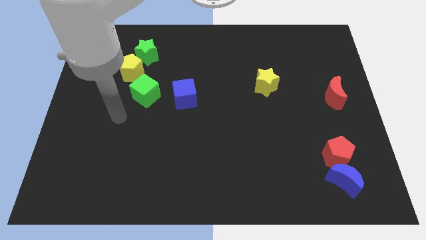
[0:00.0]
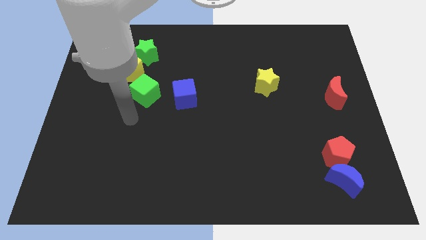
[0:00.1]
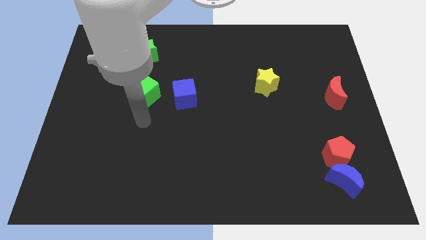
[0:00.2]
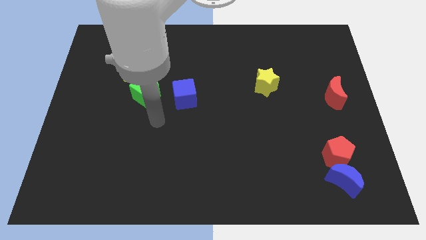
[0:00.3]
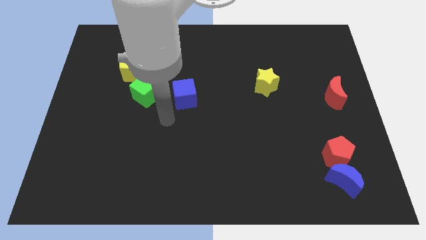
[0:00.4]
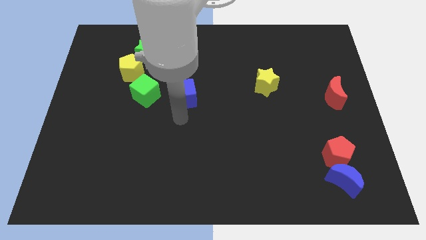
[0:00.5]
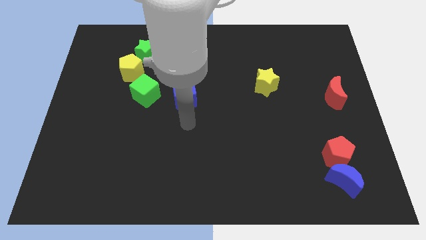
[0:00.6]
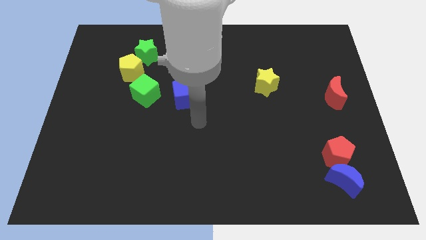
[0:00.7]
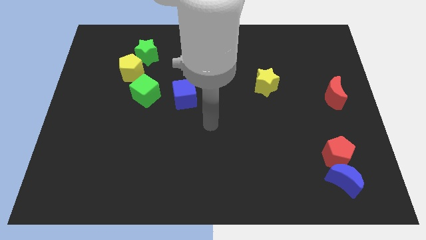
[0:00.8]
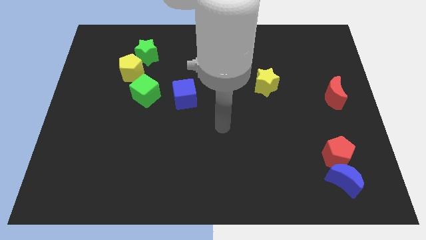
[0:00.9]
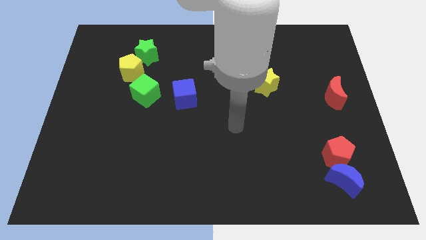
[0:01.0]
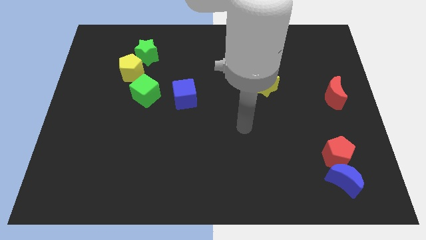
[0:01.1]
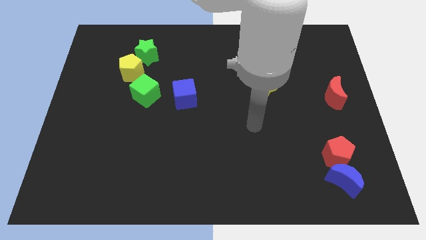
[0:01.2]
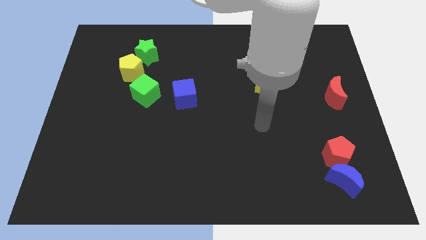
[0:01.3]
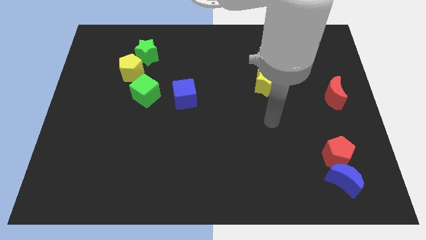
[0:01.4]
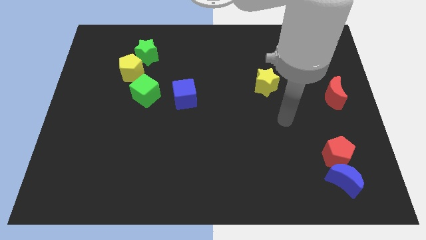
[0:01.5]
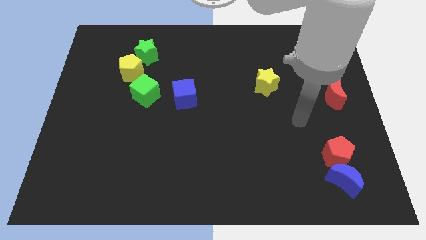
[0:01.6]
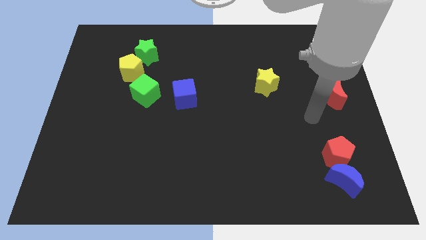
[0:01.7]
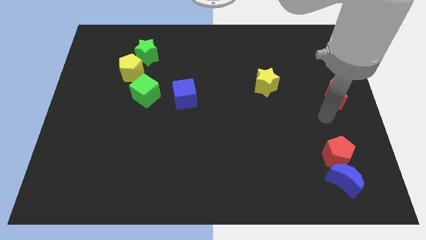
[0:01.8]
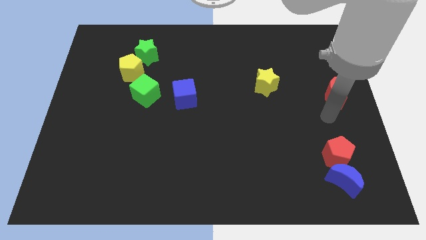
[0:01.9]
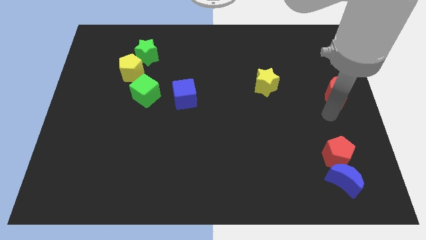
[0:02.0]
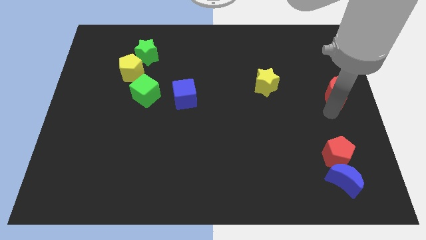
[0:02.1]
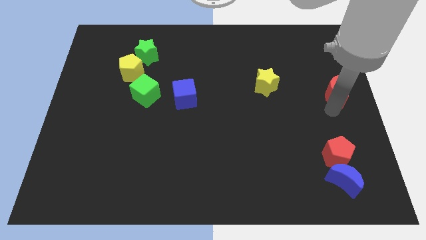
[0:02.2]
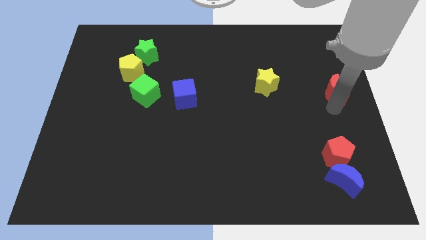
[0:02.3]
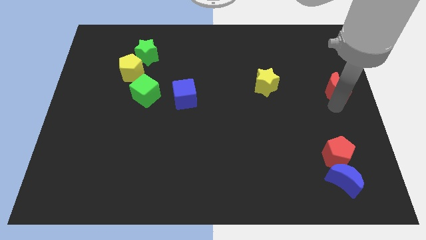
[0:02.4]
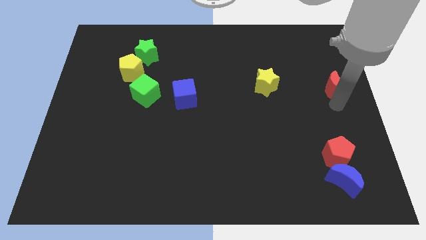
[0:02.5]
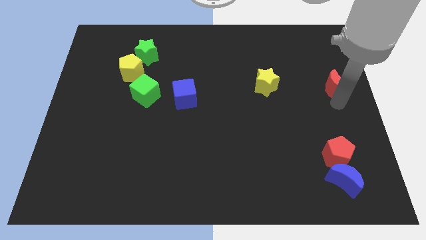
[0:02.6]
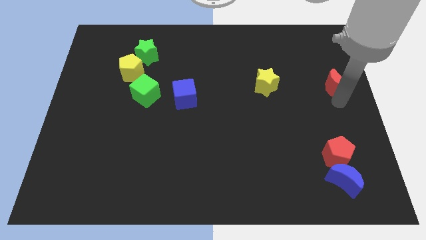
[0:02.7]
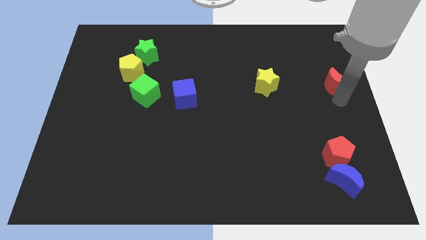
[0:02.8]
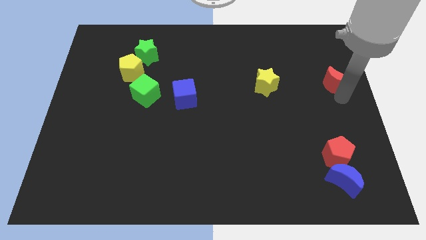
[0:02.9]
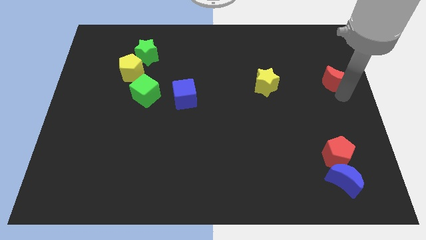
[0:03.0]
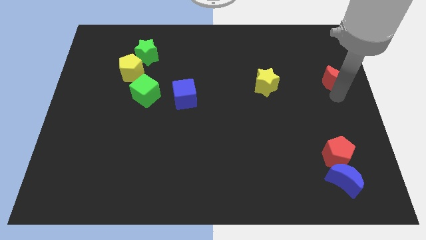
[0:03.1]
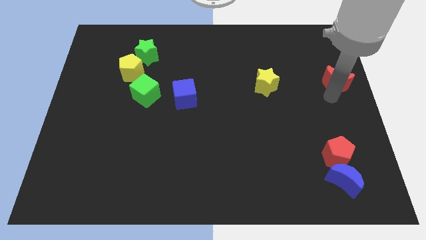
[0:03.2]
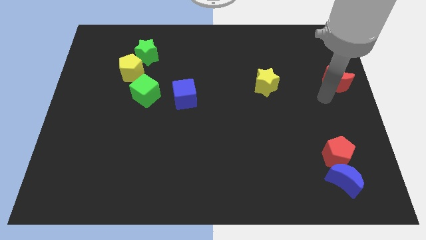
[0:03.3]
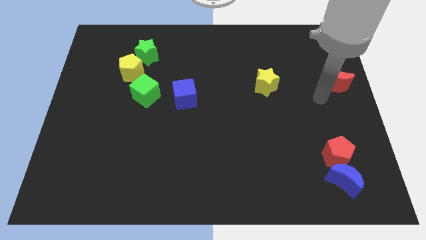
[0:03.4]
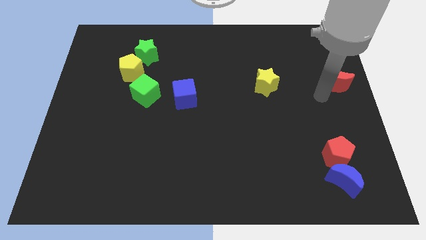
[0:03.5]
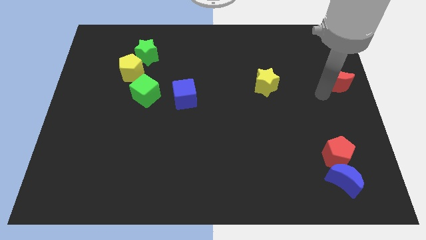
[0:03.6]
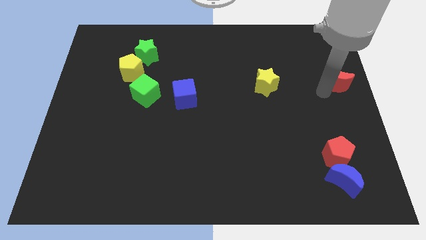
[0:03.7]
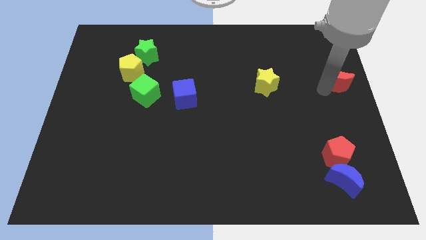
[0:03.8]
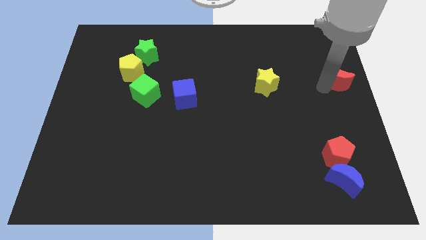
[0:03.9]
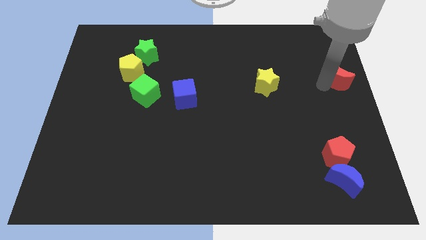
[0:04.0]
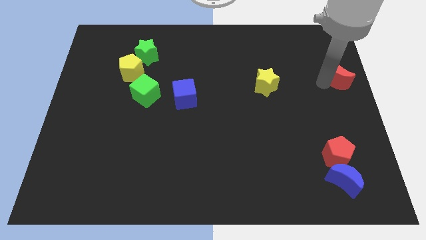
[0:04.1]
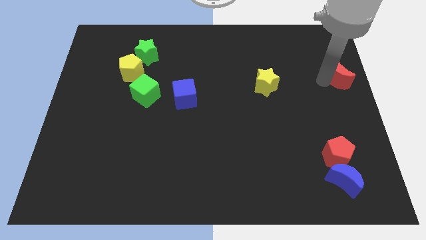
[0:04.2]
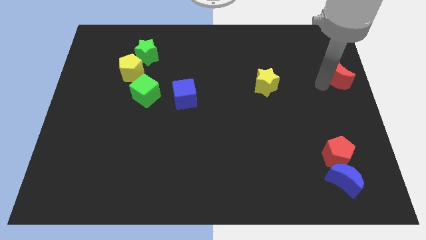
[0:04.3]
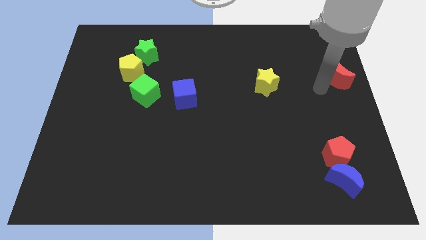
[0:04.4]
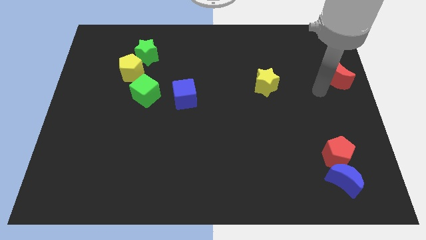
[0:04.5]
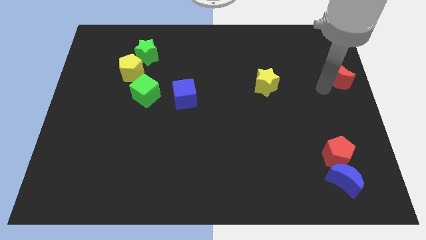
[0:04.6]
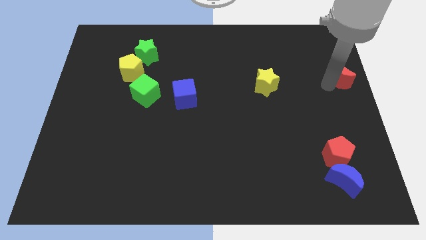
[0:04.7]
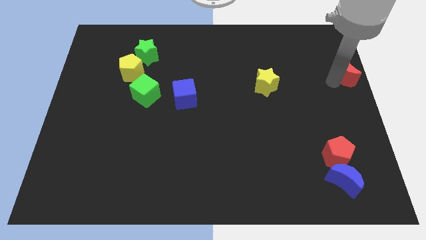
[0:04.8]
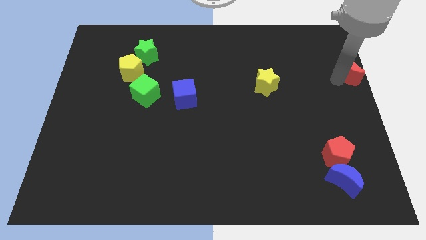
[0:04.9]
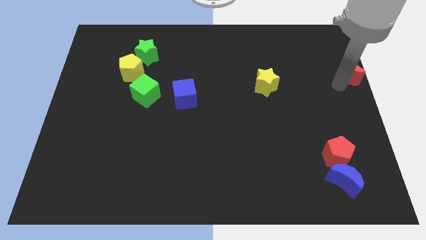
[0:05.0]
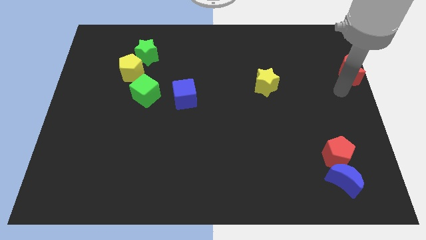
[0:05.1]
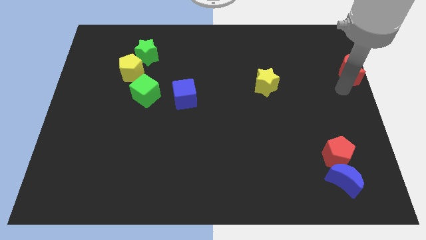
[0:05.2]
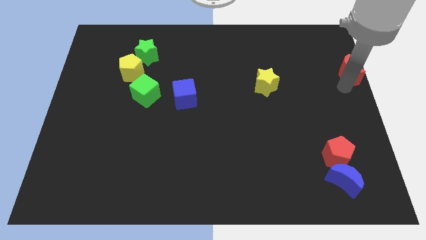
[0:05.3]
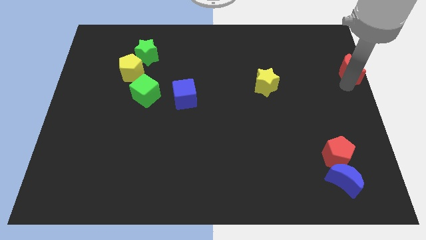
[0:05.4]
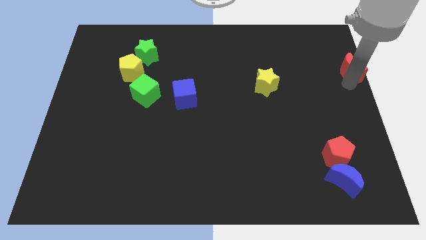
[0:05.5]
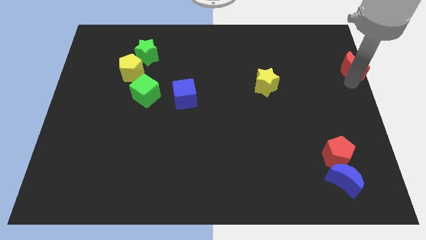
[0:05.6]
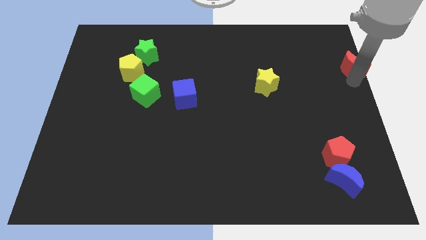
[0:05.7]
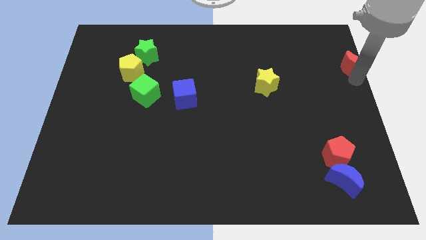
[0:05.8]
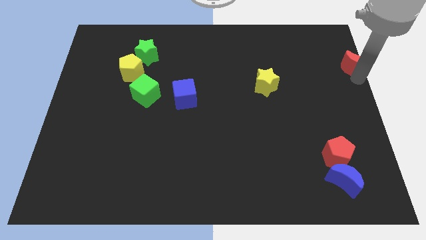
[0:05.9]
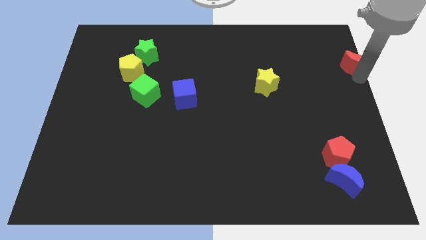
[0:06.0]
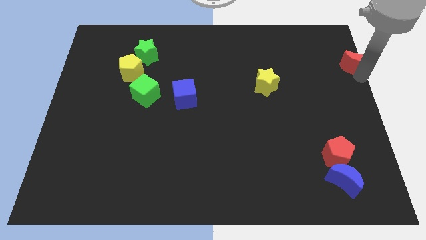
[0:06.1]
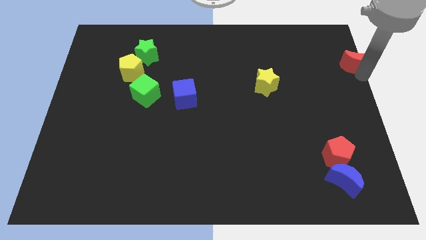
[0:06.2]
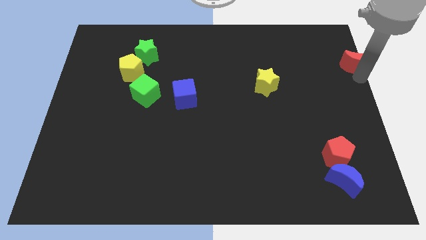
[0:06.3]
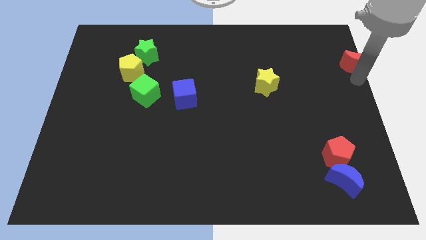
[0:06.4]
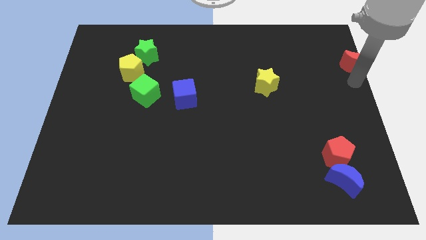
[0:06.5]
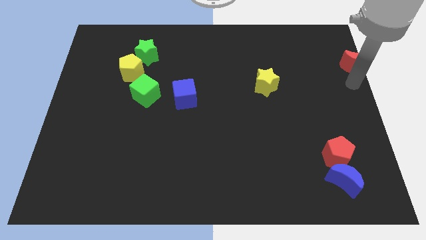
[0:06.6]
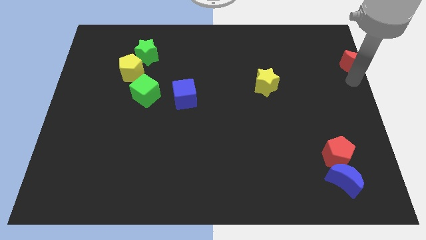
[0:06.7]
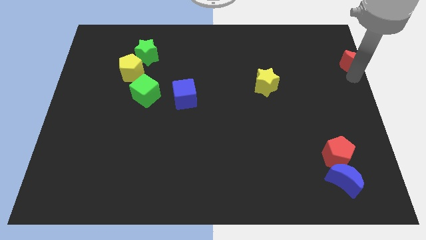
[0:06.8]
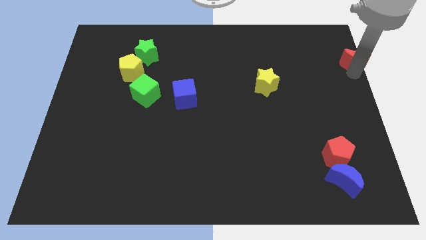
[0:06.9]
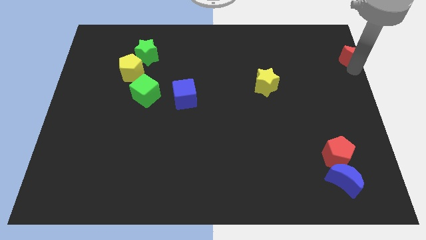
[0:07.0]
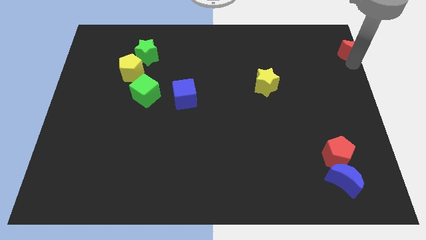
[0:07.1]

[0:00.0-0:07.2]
slide the red moon to the top right of the board

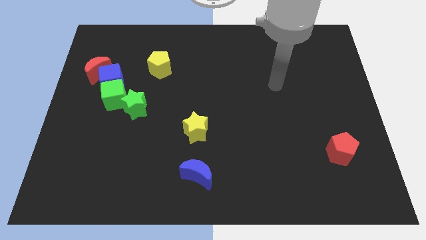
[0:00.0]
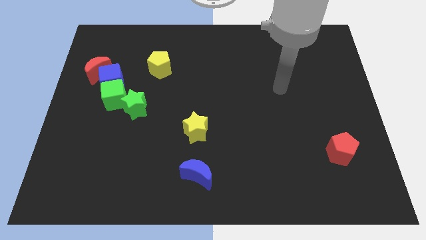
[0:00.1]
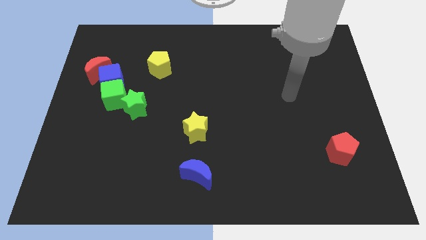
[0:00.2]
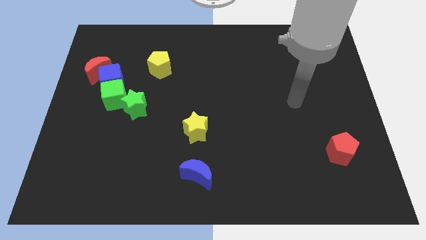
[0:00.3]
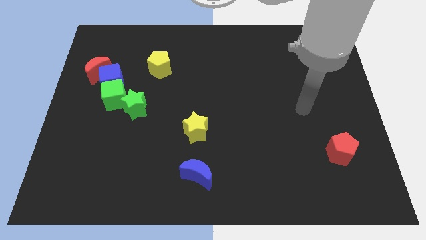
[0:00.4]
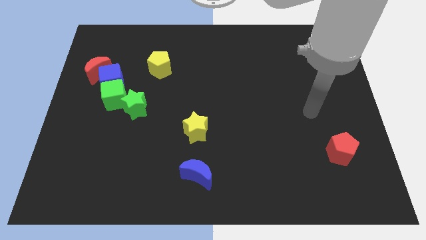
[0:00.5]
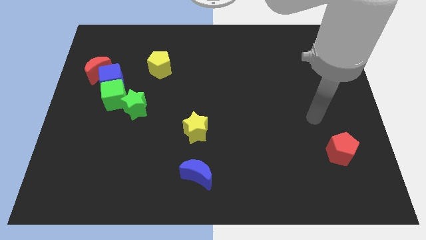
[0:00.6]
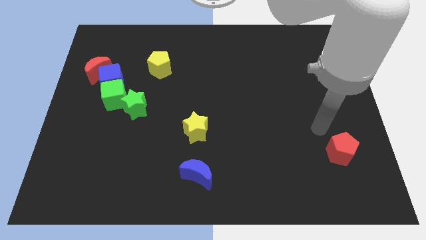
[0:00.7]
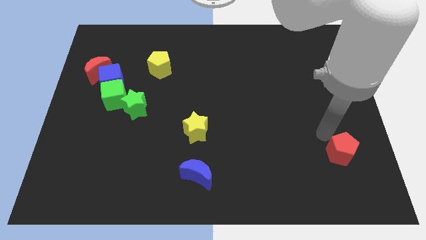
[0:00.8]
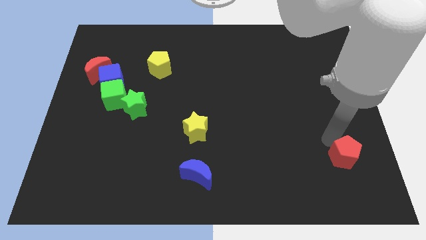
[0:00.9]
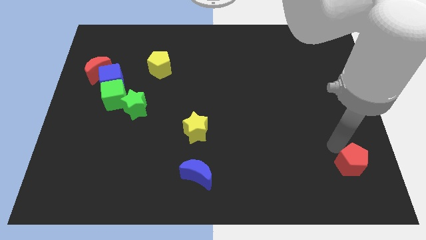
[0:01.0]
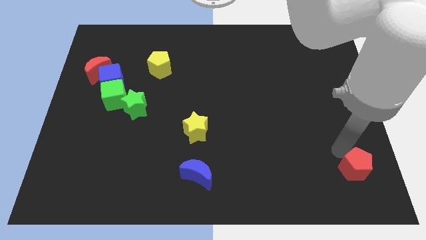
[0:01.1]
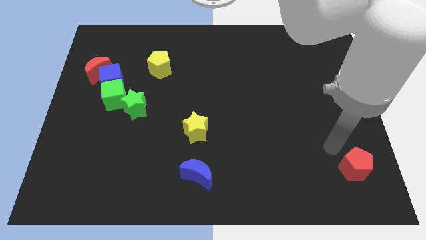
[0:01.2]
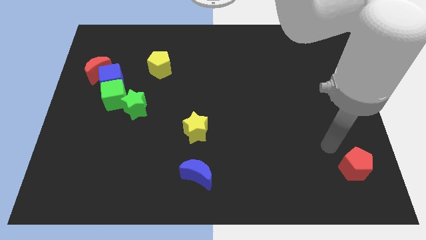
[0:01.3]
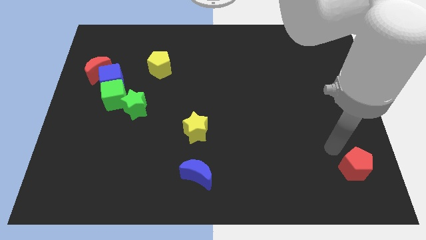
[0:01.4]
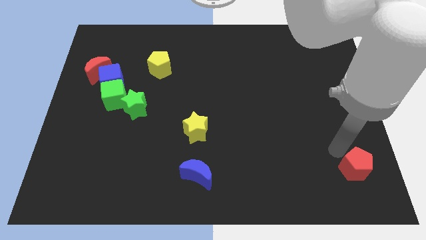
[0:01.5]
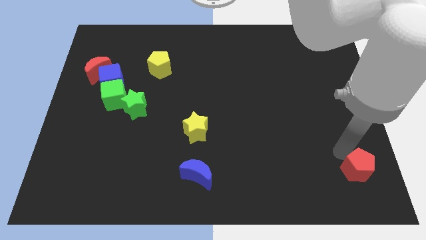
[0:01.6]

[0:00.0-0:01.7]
move the red pentagon to the lower right corner
